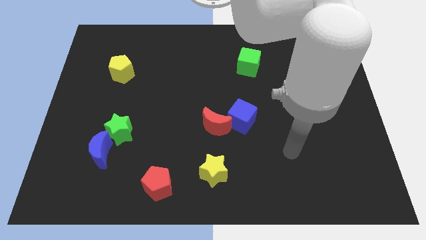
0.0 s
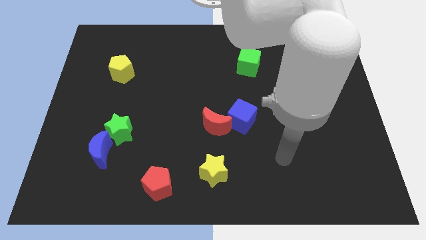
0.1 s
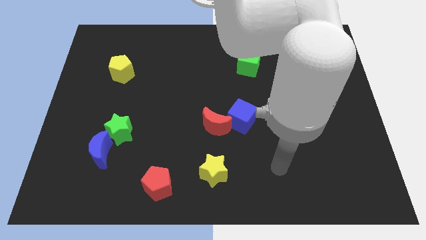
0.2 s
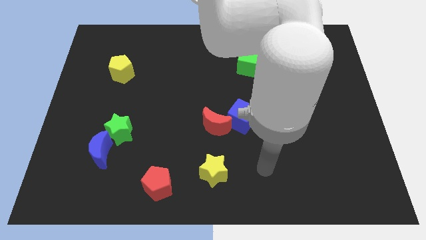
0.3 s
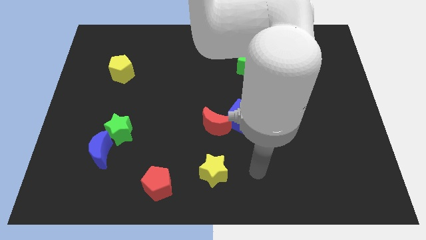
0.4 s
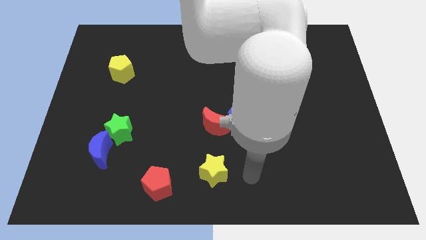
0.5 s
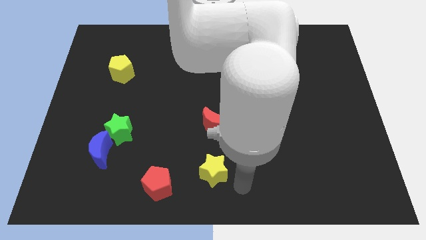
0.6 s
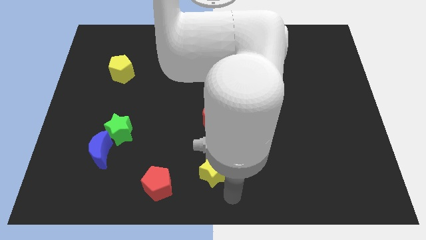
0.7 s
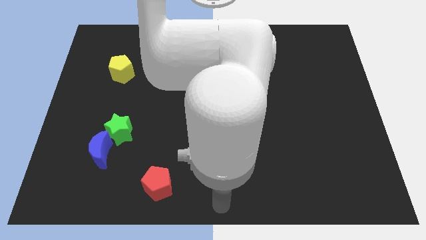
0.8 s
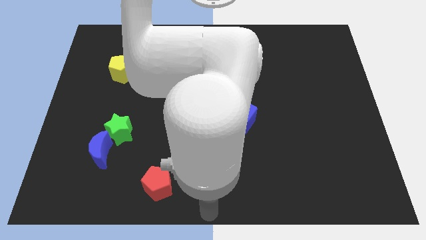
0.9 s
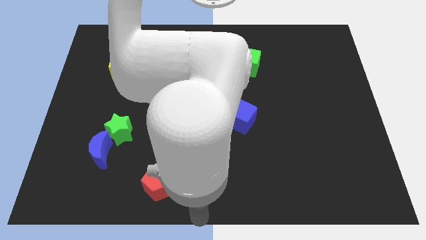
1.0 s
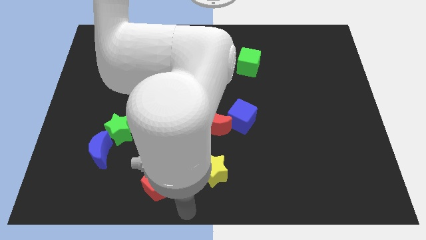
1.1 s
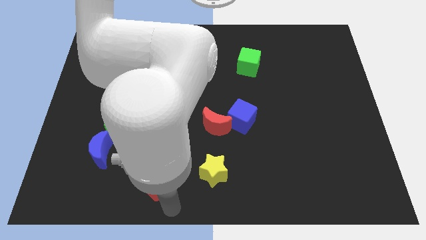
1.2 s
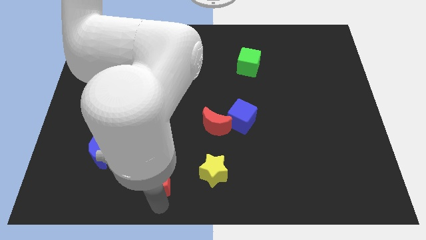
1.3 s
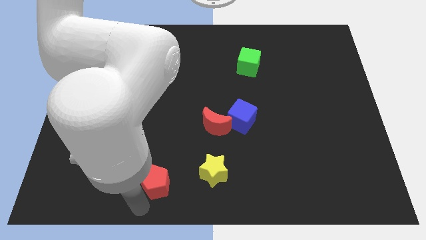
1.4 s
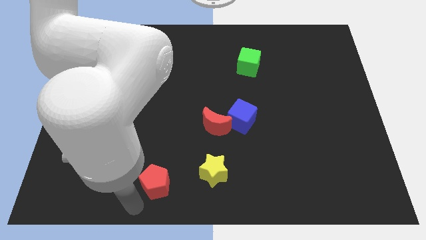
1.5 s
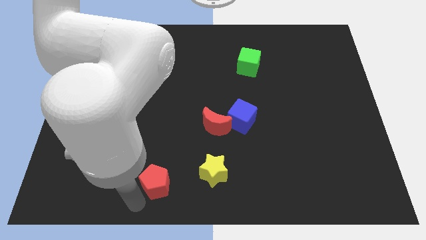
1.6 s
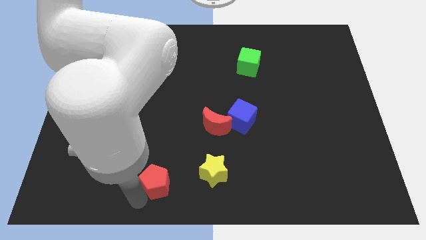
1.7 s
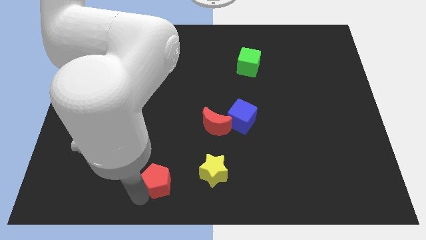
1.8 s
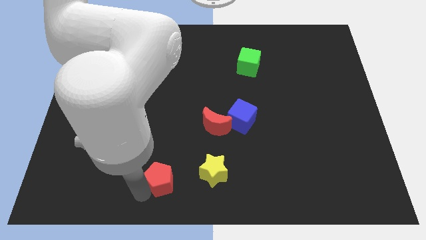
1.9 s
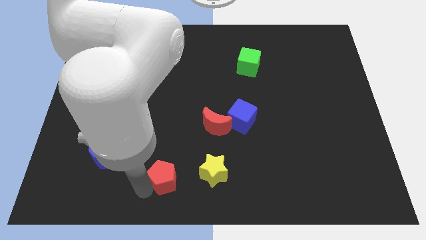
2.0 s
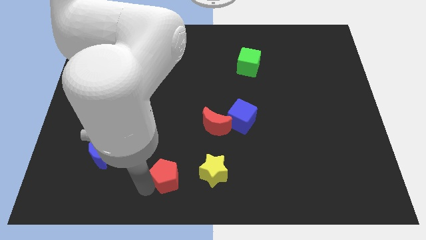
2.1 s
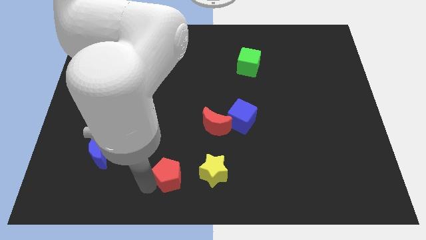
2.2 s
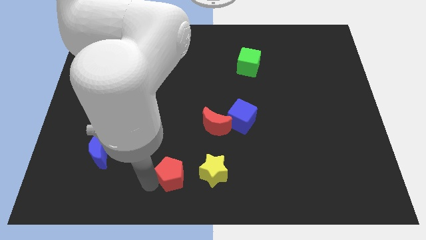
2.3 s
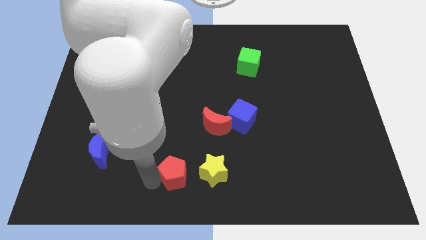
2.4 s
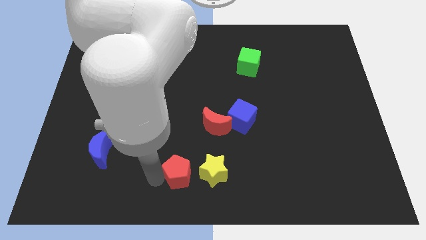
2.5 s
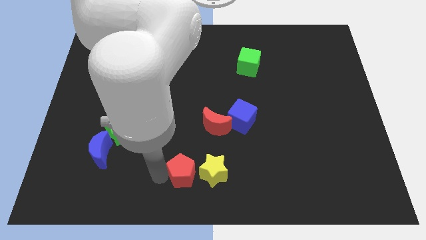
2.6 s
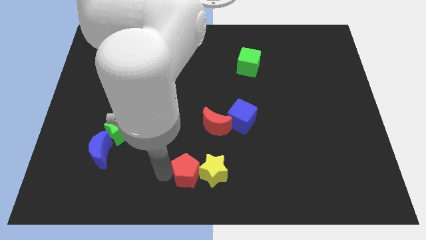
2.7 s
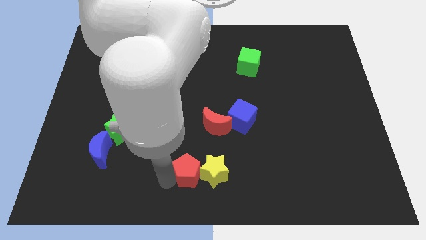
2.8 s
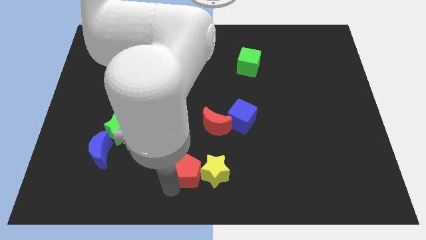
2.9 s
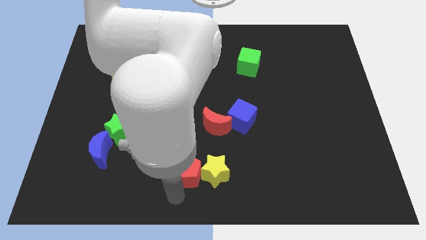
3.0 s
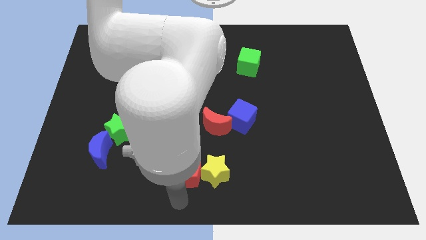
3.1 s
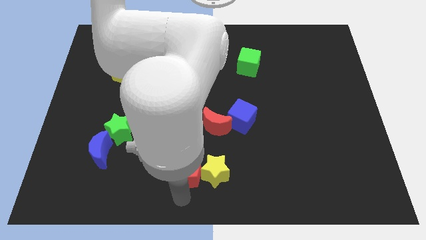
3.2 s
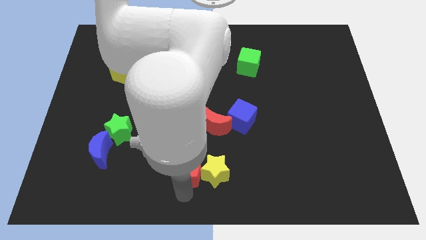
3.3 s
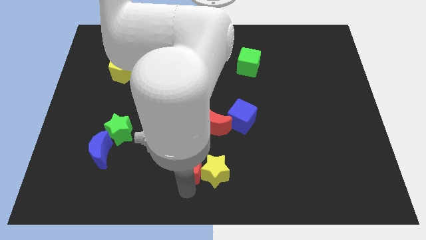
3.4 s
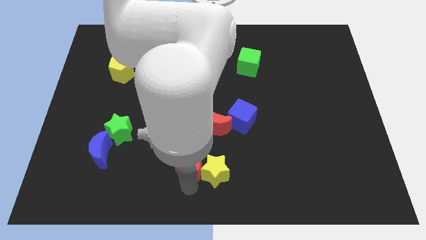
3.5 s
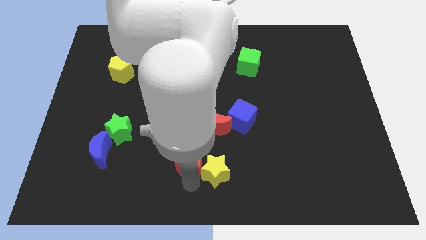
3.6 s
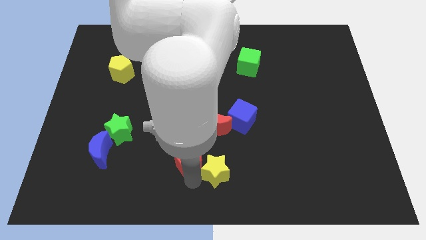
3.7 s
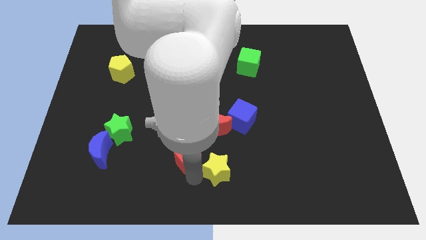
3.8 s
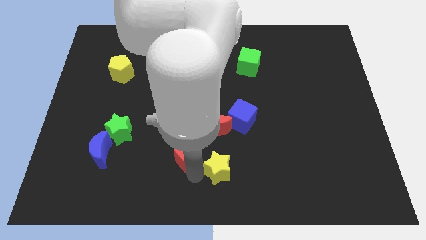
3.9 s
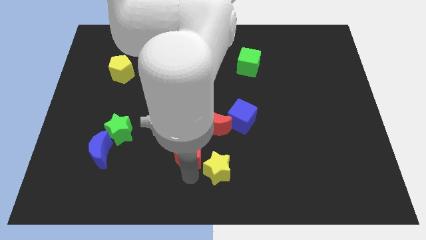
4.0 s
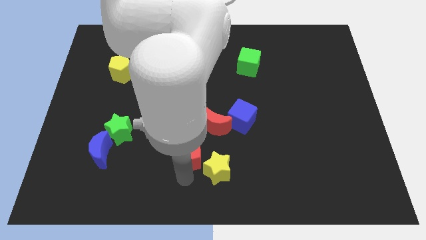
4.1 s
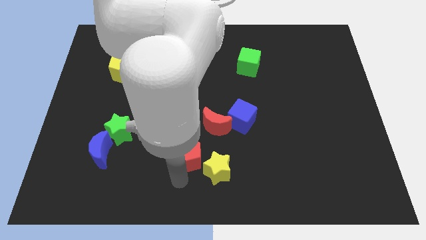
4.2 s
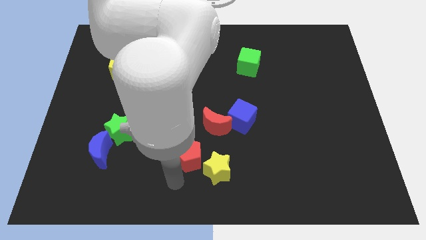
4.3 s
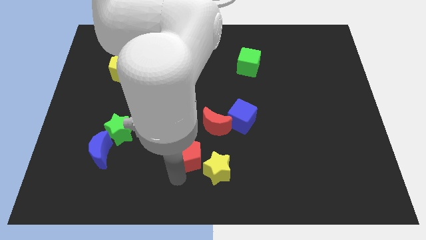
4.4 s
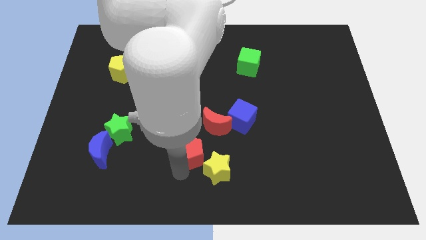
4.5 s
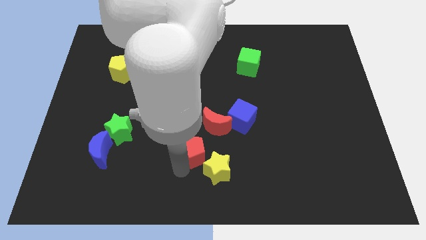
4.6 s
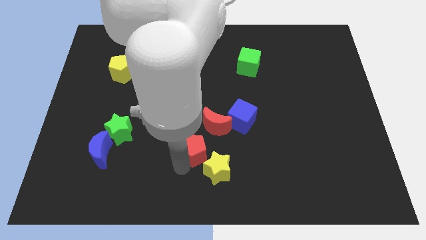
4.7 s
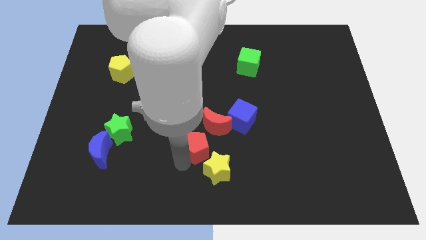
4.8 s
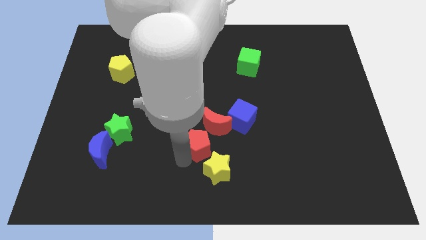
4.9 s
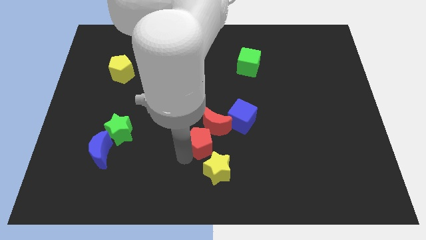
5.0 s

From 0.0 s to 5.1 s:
put the red pentagon close to the red moon

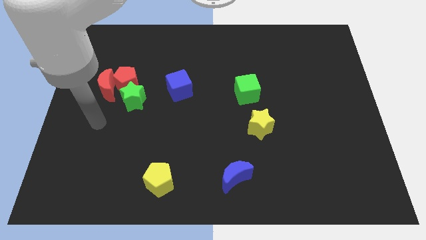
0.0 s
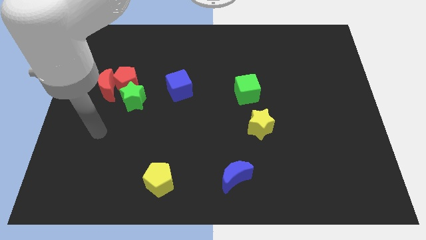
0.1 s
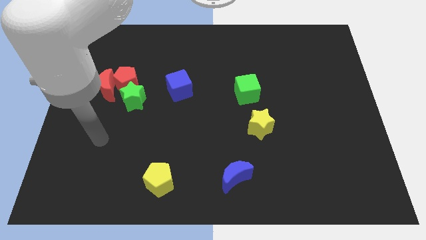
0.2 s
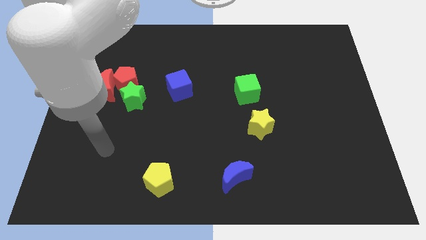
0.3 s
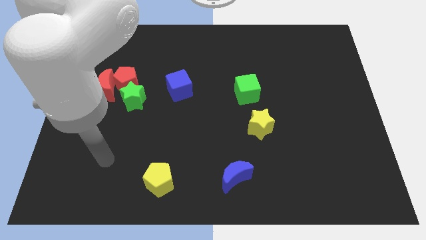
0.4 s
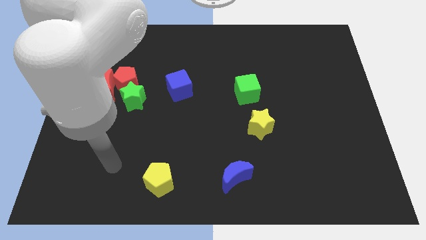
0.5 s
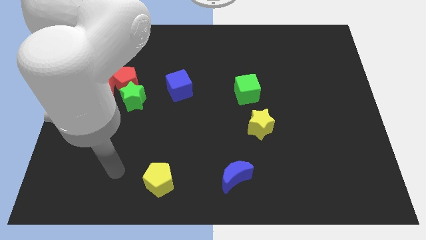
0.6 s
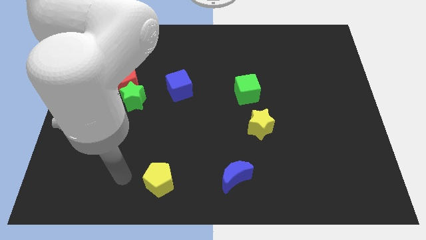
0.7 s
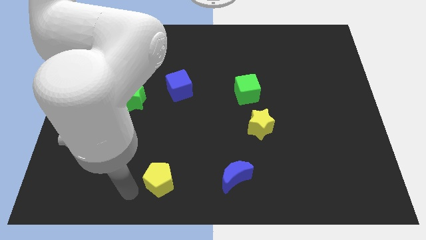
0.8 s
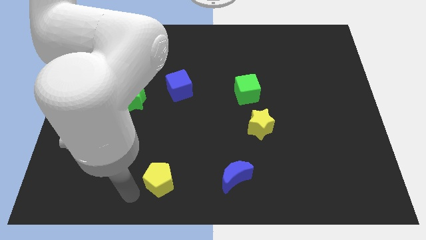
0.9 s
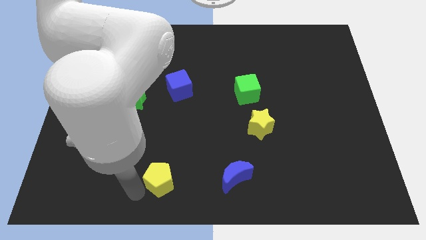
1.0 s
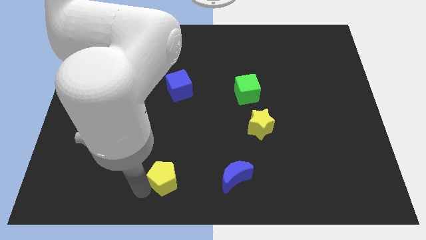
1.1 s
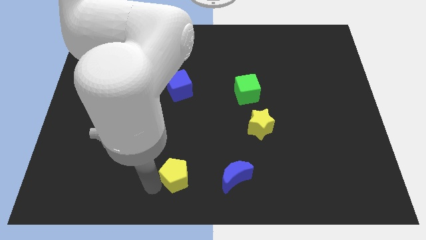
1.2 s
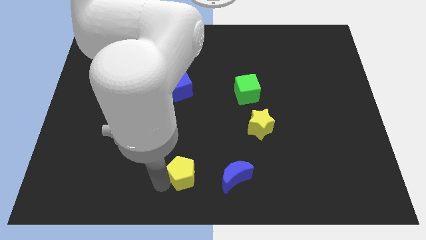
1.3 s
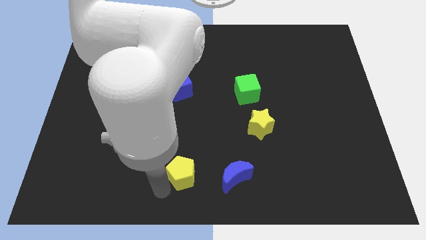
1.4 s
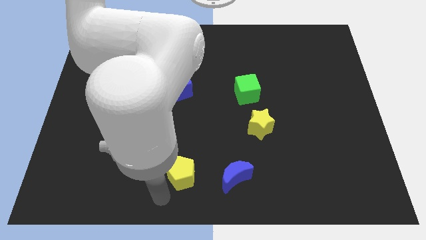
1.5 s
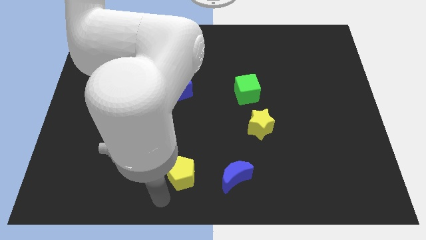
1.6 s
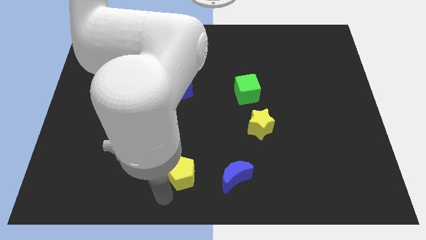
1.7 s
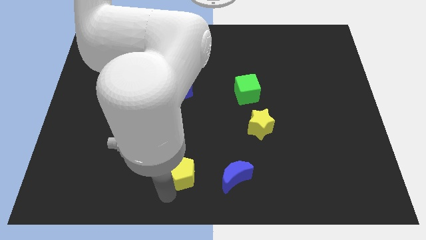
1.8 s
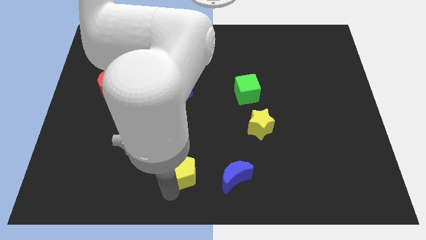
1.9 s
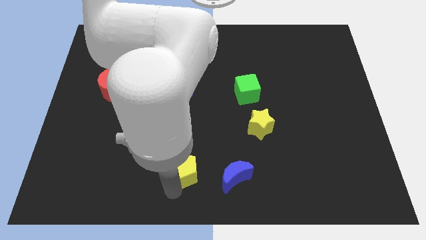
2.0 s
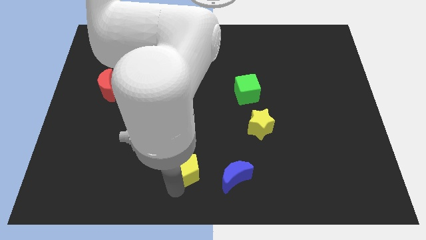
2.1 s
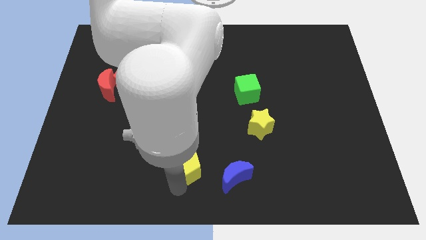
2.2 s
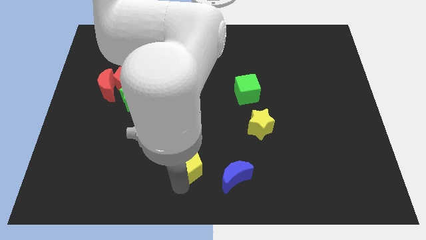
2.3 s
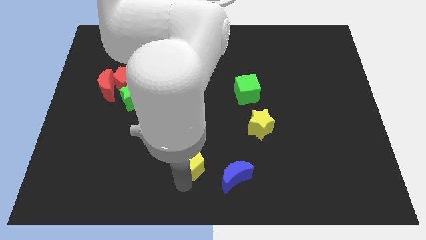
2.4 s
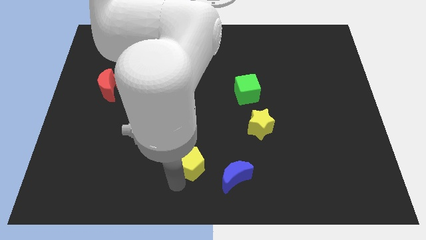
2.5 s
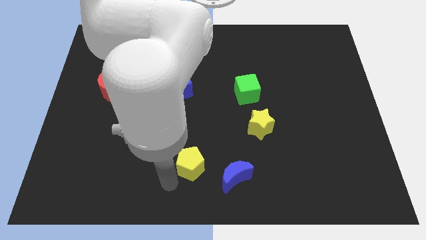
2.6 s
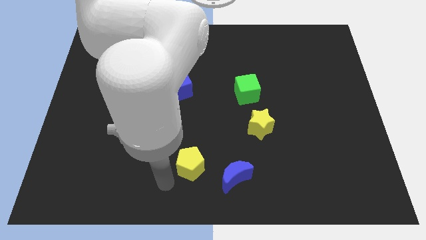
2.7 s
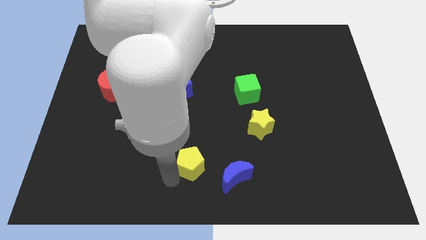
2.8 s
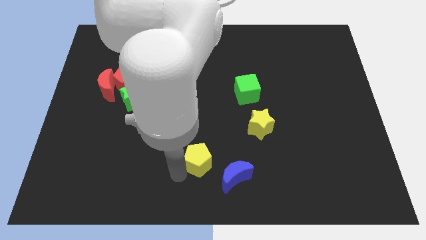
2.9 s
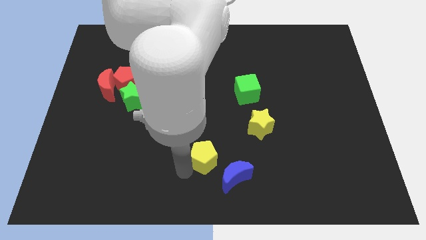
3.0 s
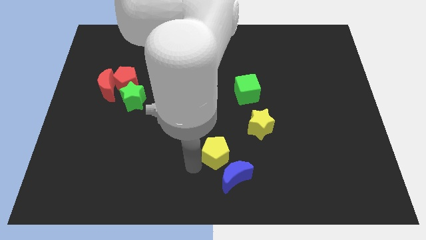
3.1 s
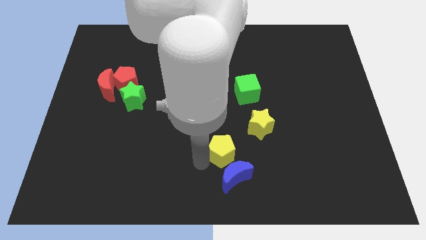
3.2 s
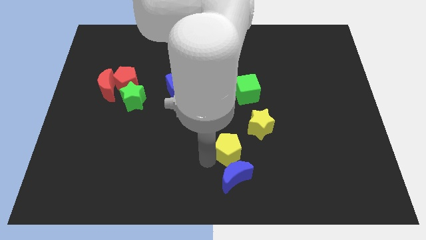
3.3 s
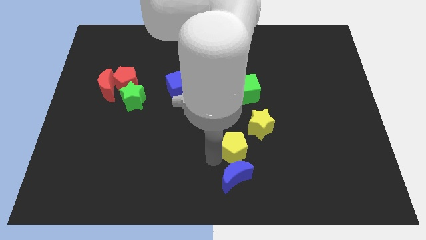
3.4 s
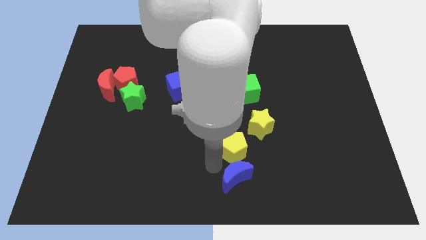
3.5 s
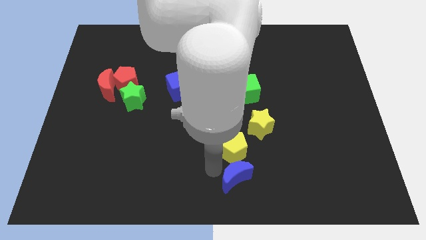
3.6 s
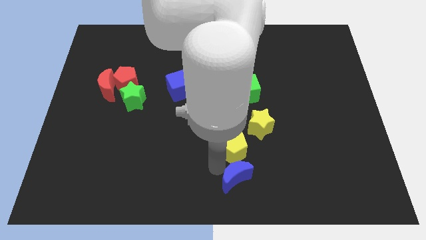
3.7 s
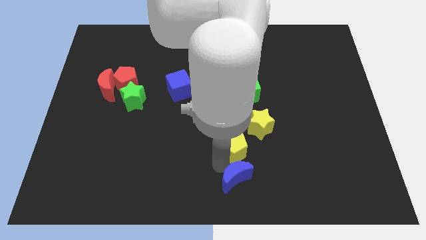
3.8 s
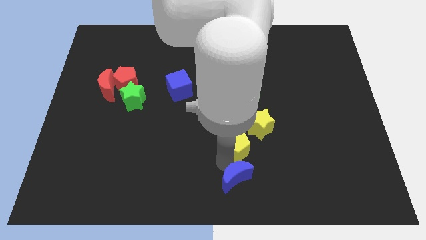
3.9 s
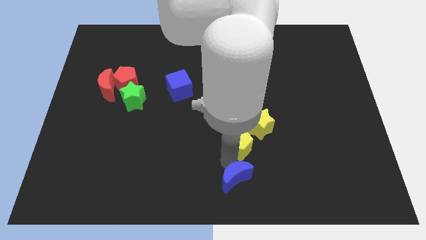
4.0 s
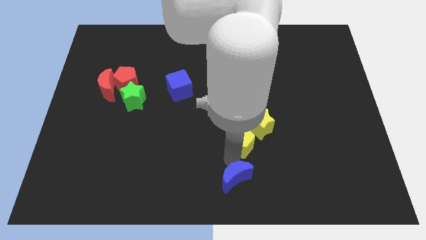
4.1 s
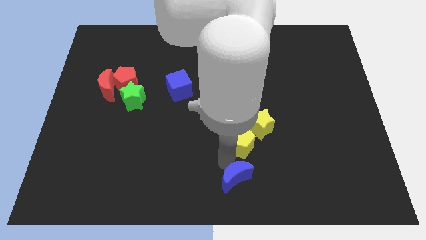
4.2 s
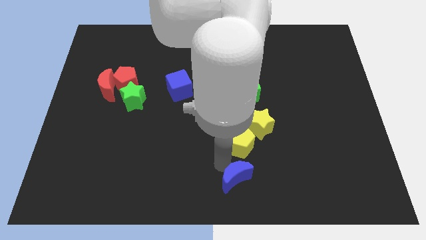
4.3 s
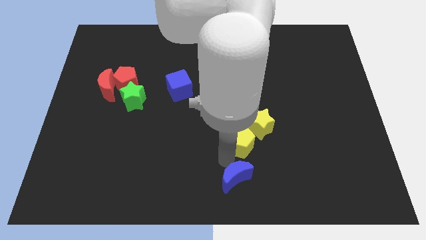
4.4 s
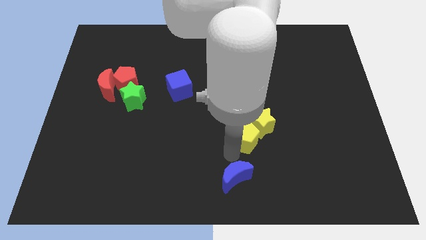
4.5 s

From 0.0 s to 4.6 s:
slide the yellow pentagon to the yellow star
